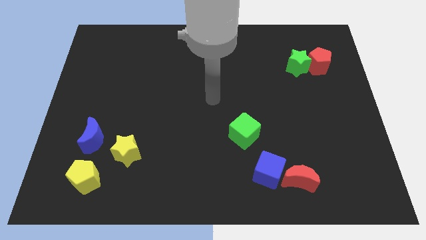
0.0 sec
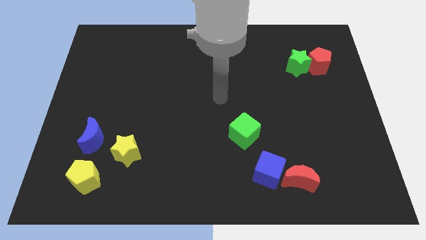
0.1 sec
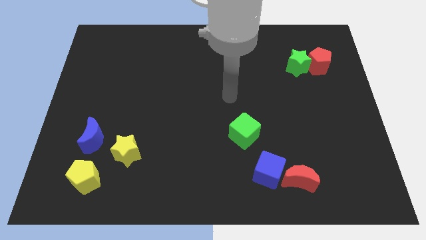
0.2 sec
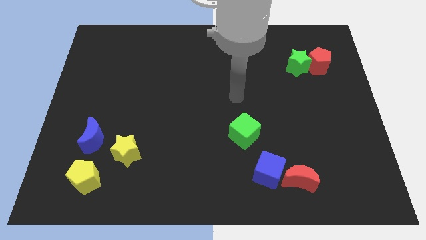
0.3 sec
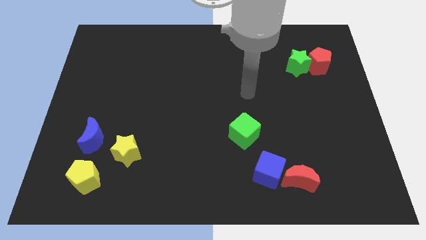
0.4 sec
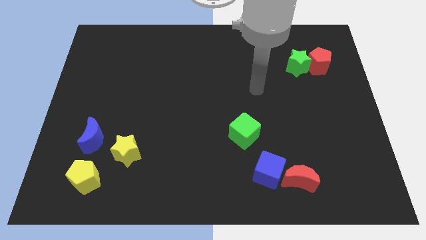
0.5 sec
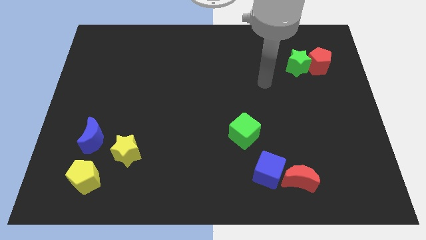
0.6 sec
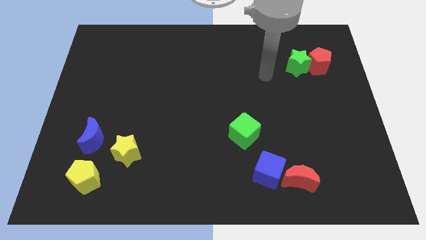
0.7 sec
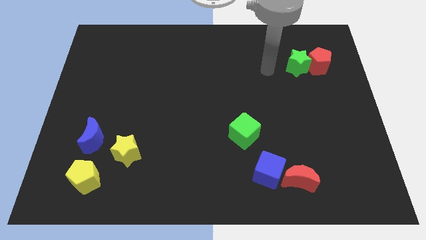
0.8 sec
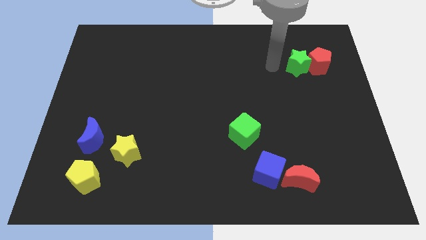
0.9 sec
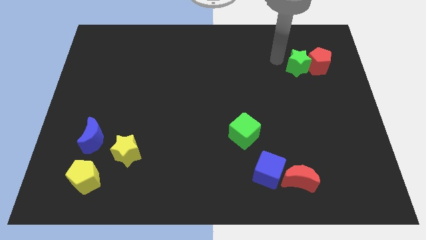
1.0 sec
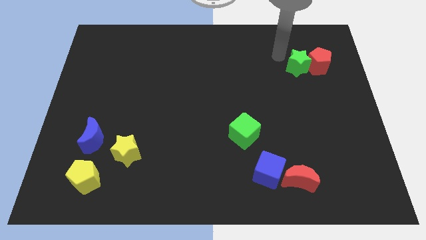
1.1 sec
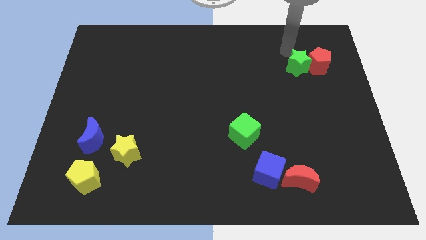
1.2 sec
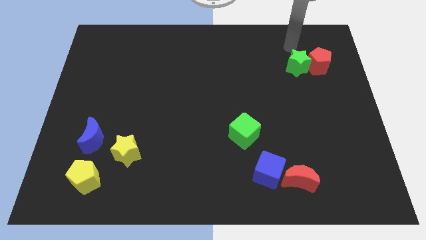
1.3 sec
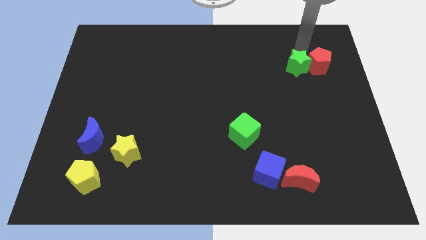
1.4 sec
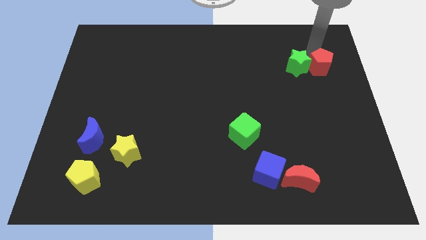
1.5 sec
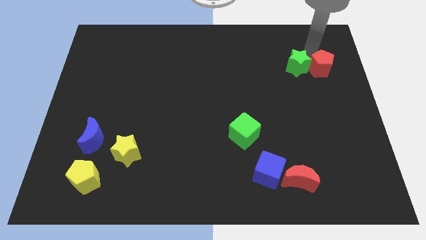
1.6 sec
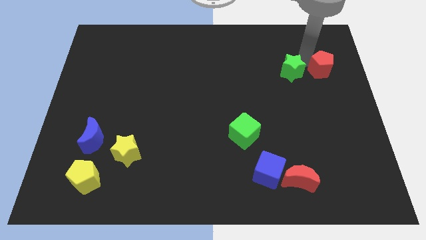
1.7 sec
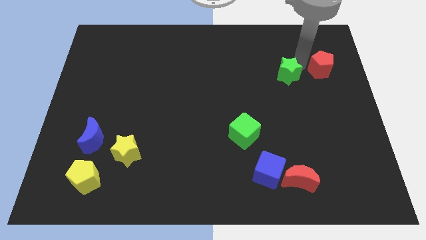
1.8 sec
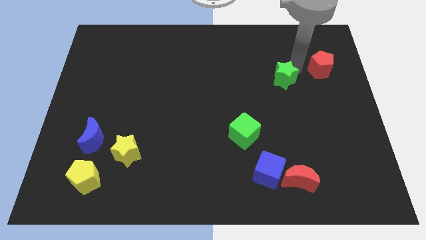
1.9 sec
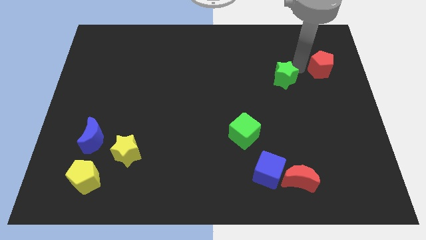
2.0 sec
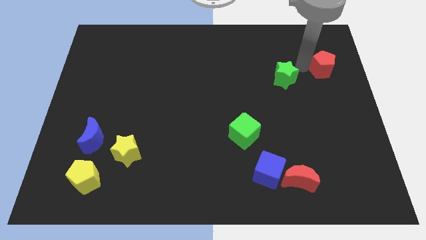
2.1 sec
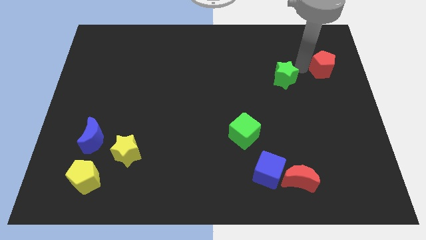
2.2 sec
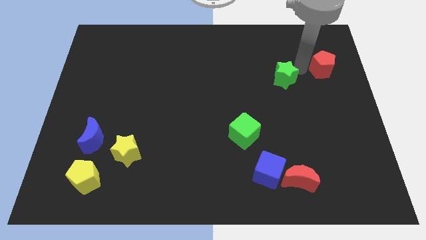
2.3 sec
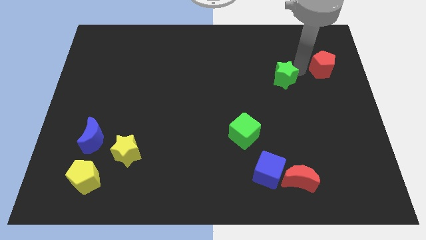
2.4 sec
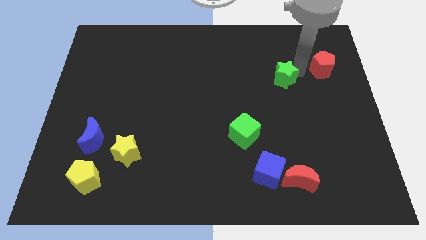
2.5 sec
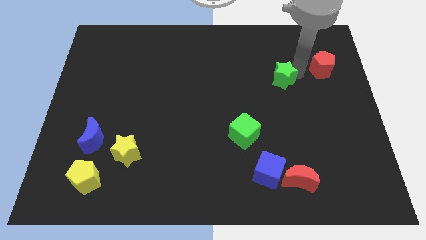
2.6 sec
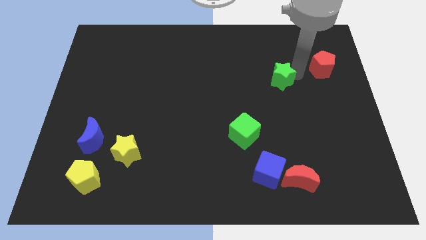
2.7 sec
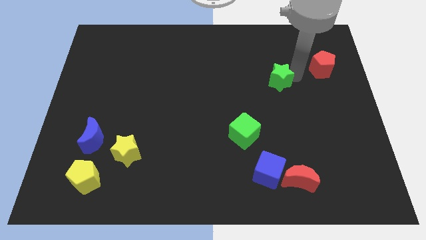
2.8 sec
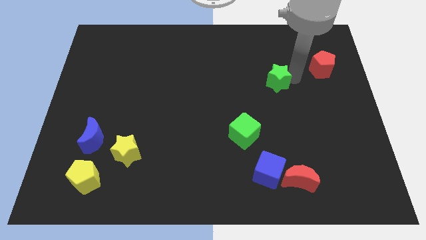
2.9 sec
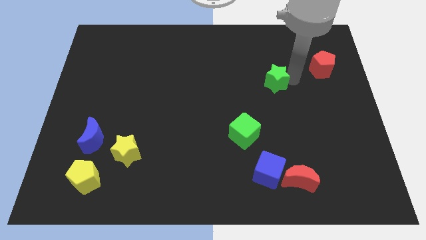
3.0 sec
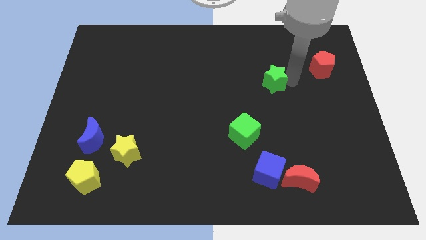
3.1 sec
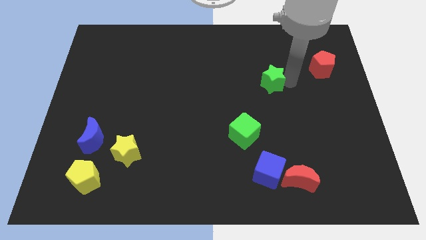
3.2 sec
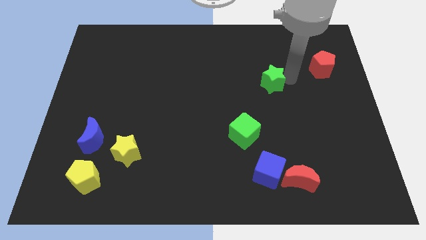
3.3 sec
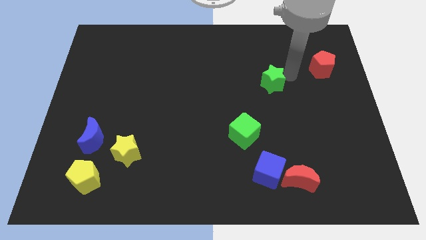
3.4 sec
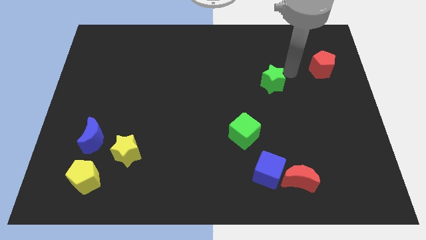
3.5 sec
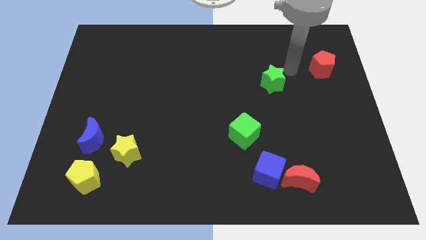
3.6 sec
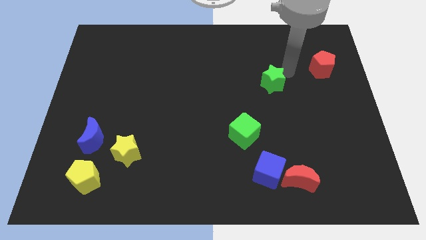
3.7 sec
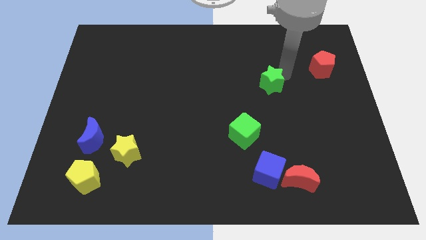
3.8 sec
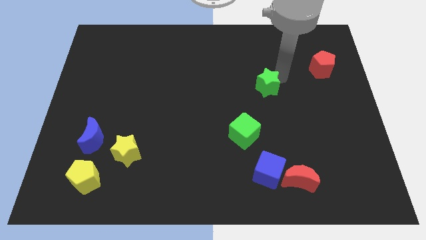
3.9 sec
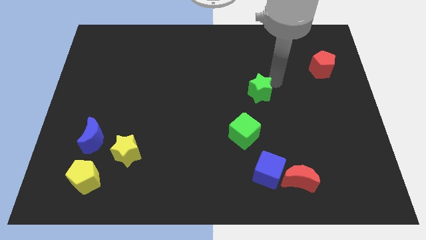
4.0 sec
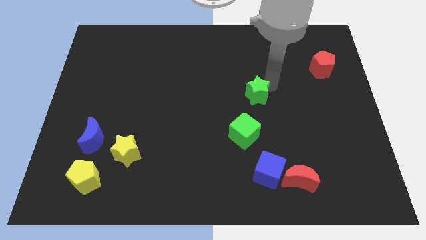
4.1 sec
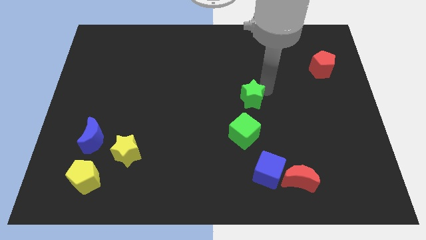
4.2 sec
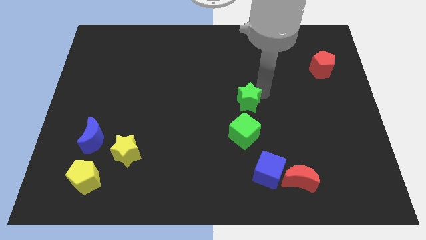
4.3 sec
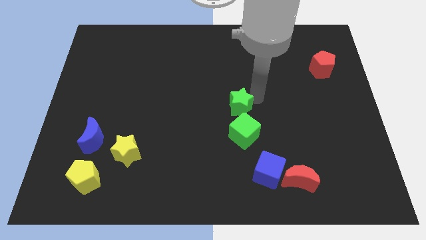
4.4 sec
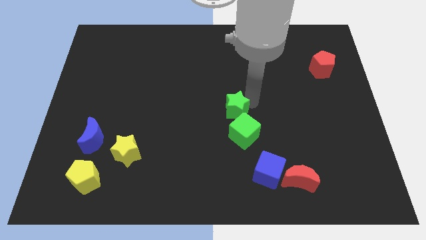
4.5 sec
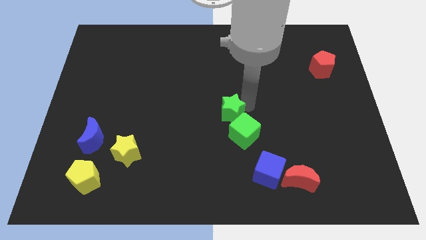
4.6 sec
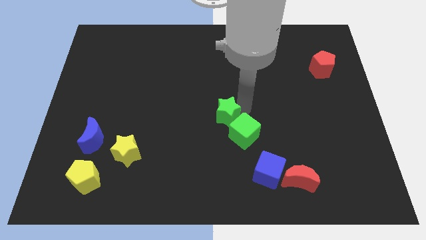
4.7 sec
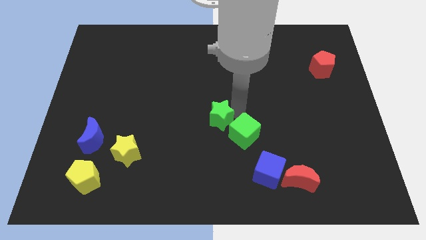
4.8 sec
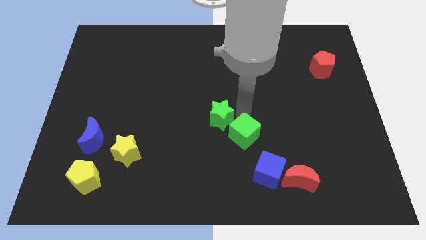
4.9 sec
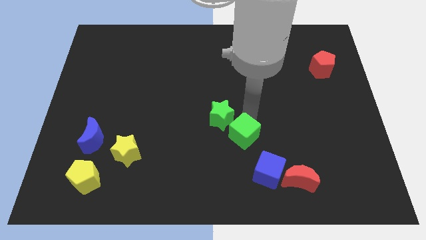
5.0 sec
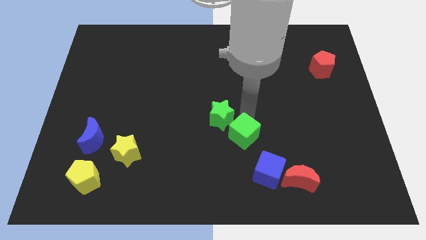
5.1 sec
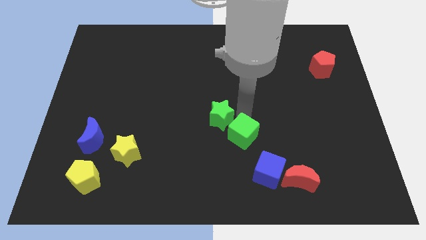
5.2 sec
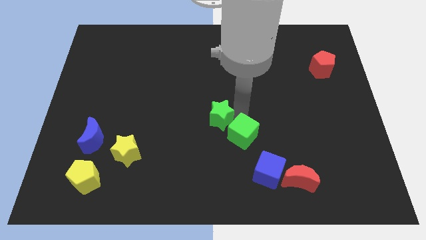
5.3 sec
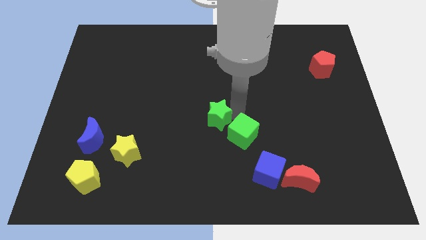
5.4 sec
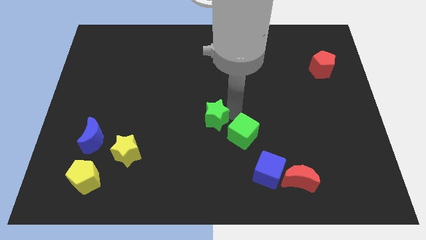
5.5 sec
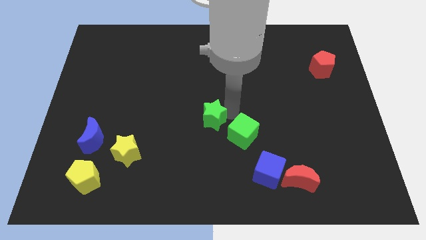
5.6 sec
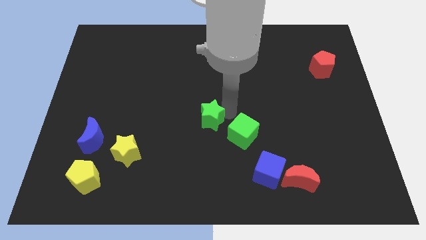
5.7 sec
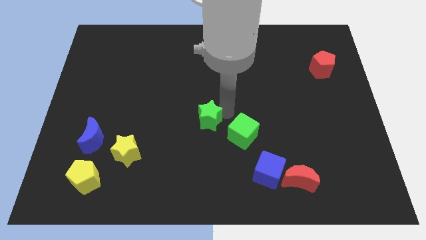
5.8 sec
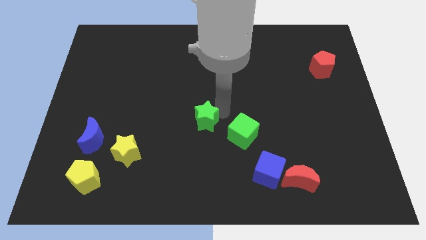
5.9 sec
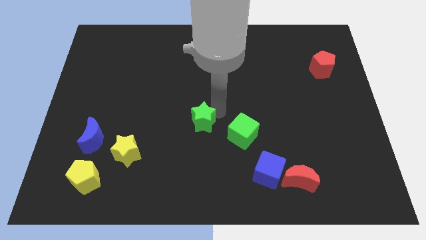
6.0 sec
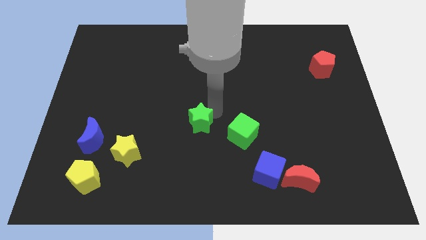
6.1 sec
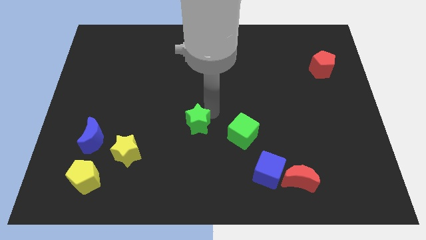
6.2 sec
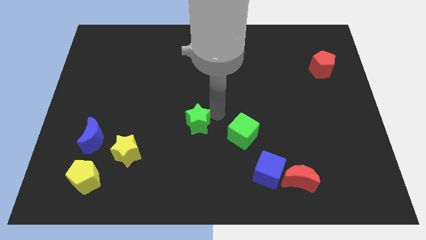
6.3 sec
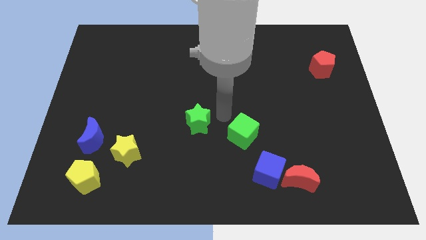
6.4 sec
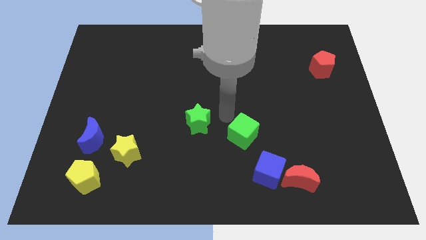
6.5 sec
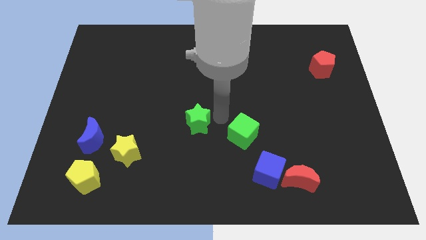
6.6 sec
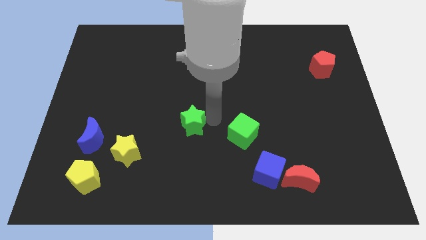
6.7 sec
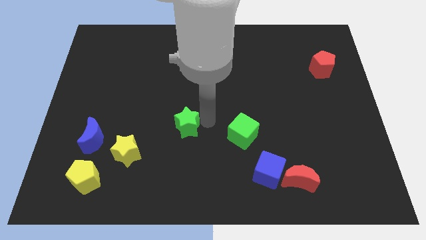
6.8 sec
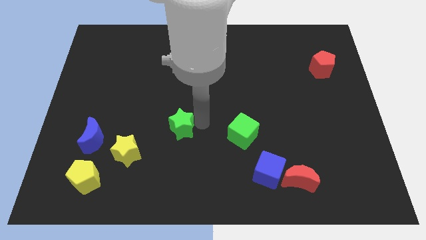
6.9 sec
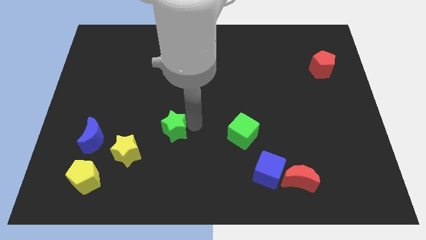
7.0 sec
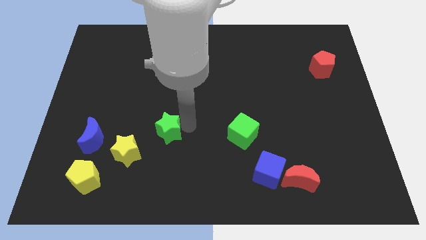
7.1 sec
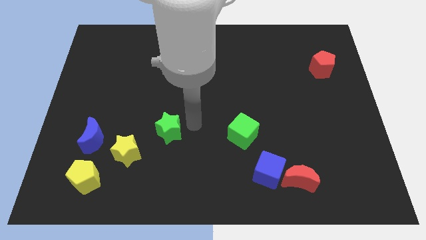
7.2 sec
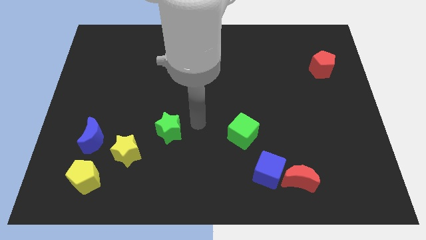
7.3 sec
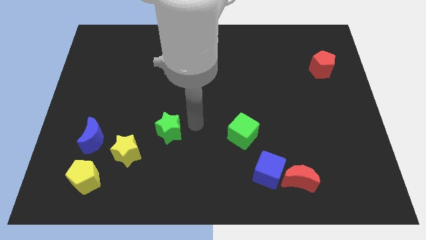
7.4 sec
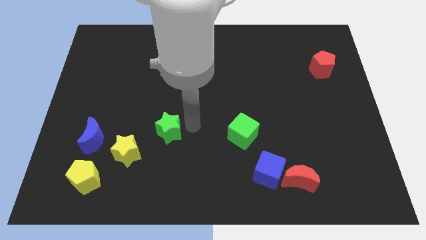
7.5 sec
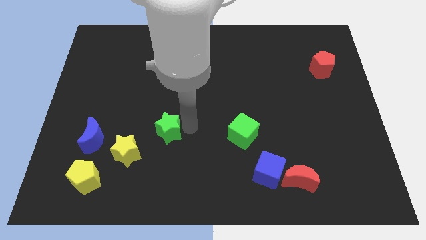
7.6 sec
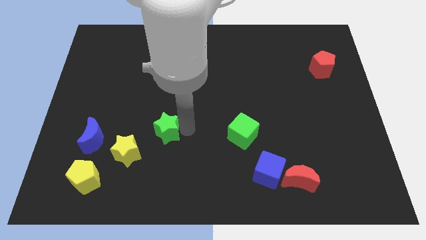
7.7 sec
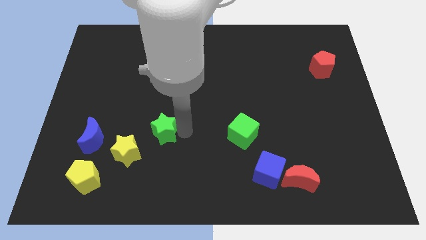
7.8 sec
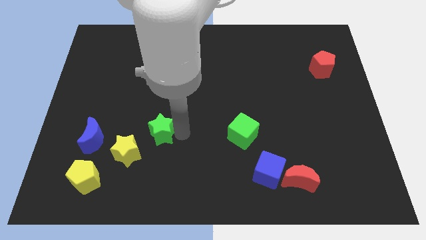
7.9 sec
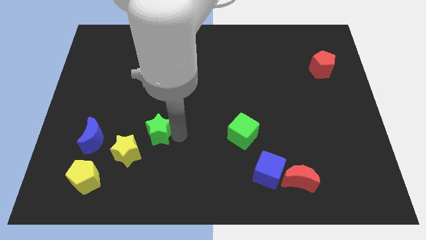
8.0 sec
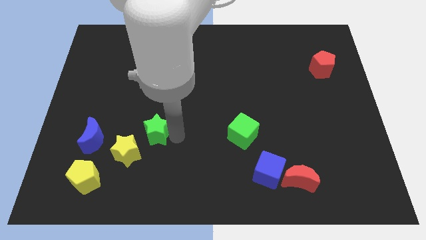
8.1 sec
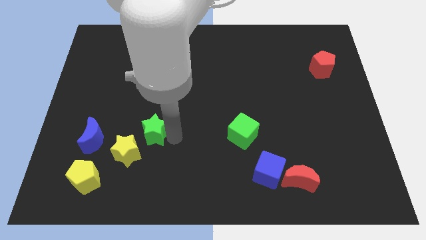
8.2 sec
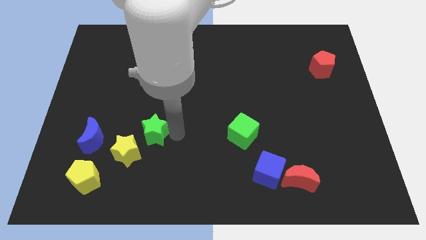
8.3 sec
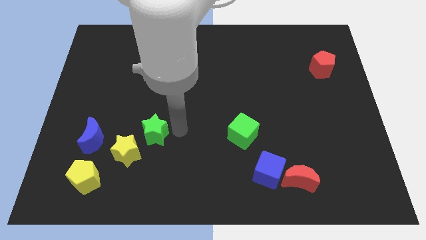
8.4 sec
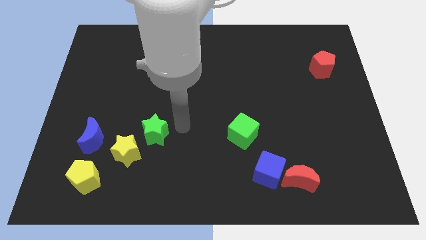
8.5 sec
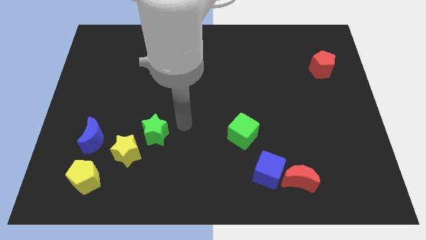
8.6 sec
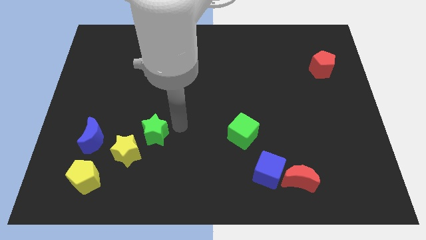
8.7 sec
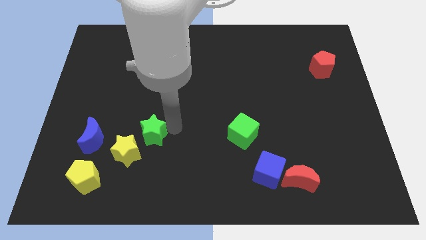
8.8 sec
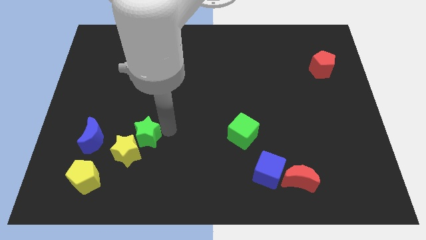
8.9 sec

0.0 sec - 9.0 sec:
move the green star next to the yellow star
